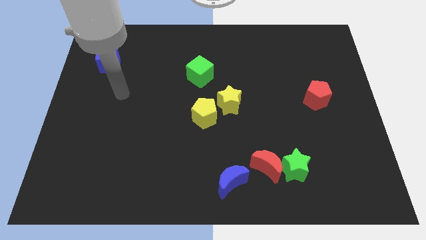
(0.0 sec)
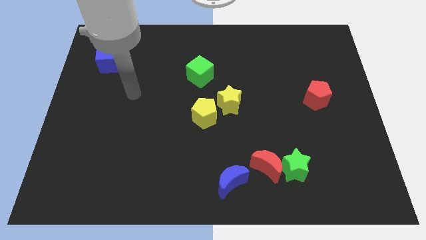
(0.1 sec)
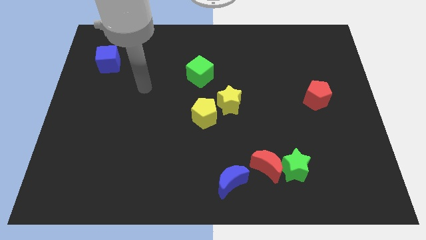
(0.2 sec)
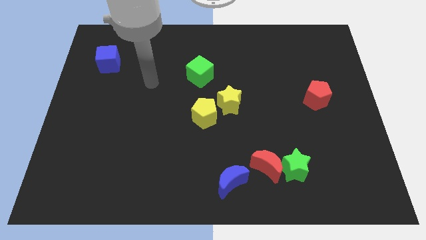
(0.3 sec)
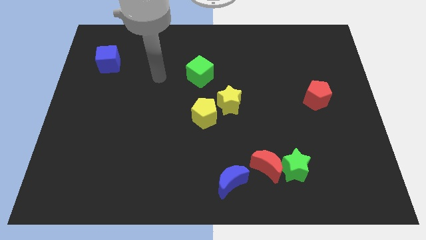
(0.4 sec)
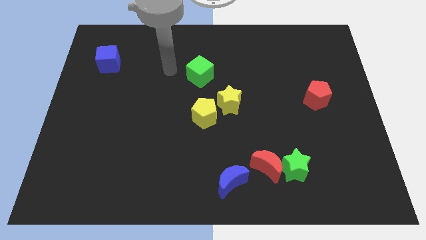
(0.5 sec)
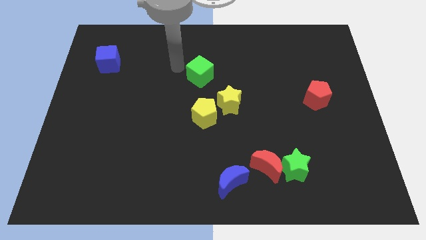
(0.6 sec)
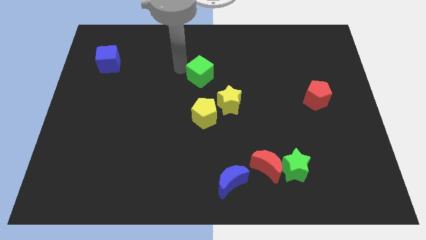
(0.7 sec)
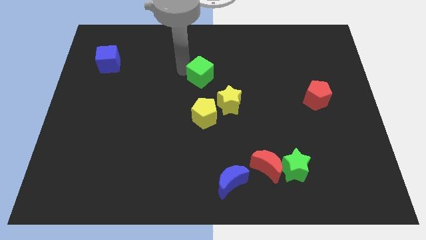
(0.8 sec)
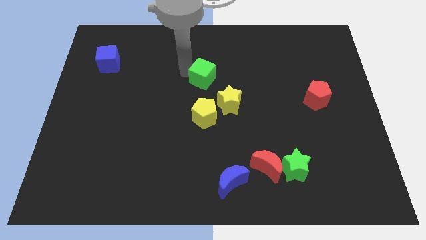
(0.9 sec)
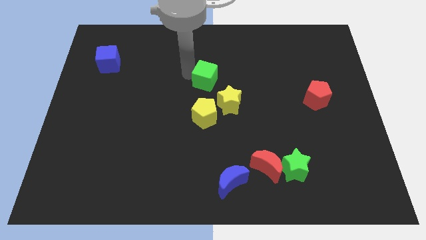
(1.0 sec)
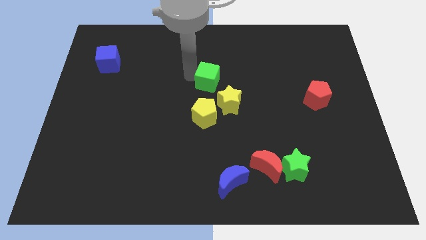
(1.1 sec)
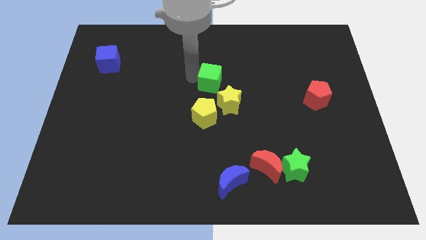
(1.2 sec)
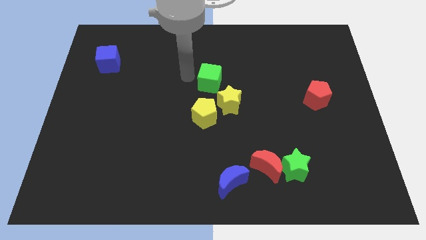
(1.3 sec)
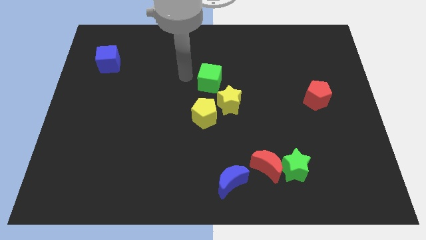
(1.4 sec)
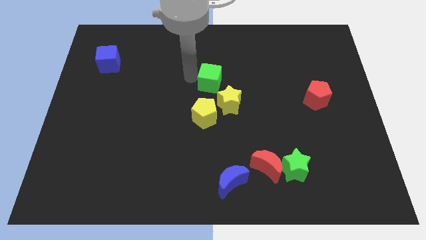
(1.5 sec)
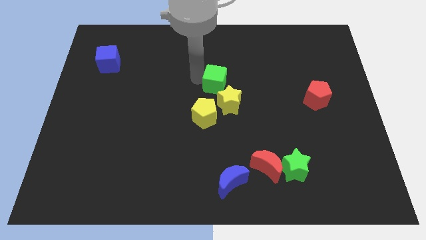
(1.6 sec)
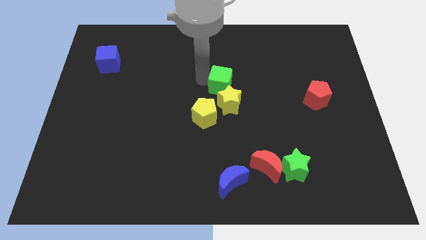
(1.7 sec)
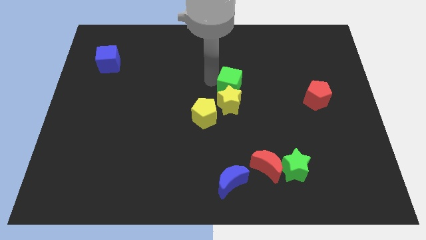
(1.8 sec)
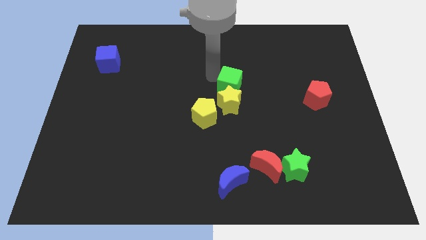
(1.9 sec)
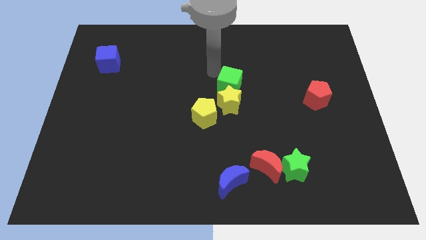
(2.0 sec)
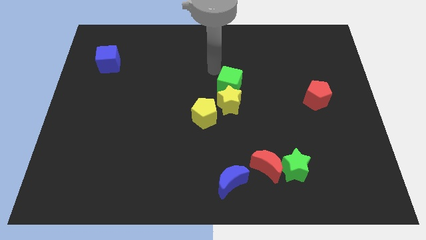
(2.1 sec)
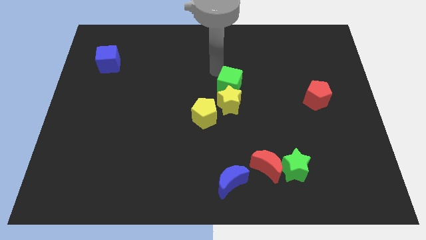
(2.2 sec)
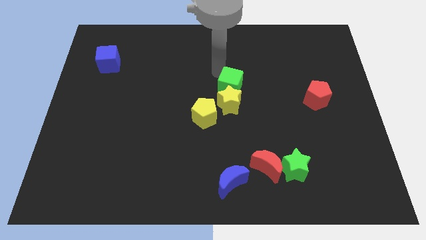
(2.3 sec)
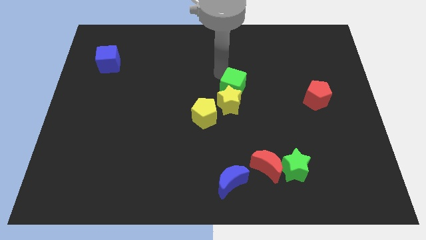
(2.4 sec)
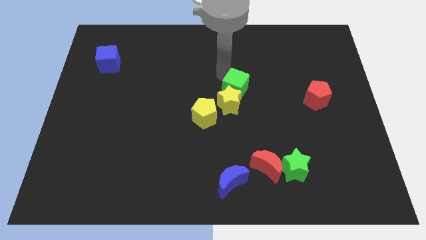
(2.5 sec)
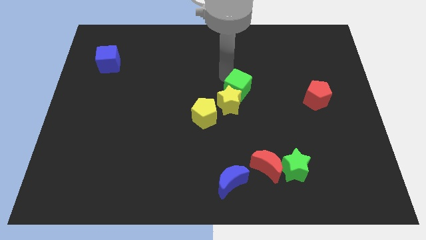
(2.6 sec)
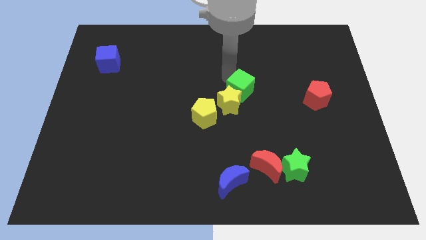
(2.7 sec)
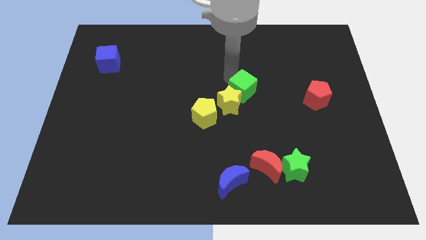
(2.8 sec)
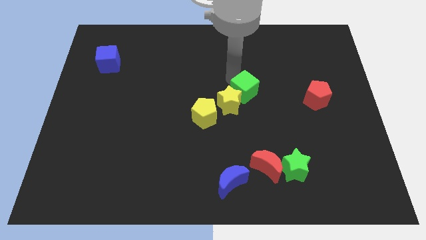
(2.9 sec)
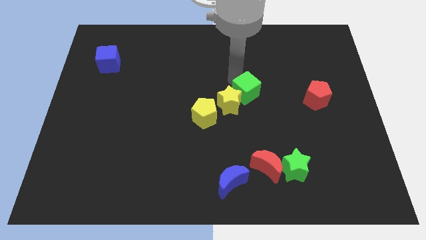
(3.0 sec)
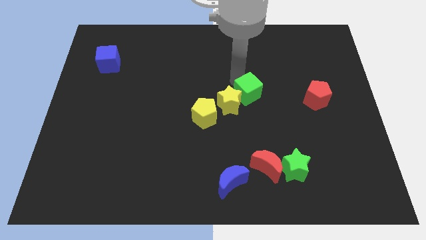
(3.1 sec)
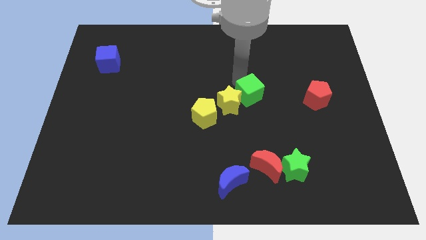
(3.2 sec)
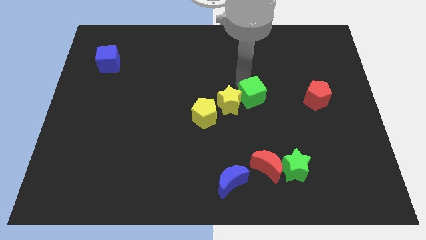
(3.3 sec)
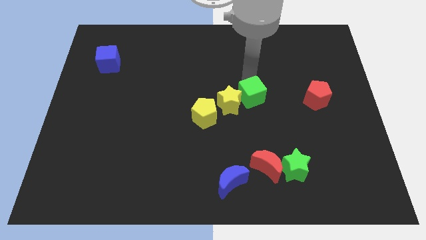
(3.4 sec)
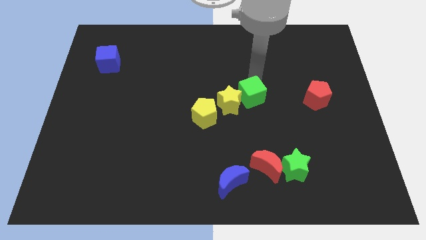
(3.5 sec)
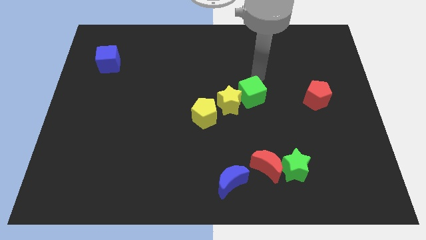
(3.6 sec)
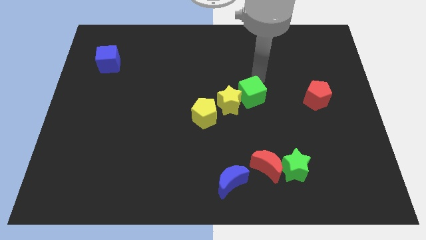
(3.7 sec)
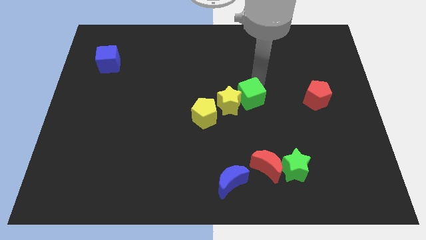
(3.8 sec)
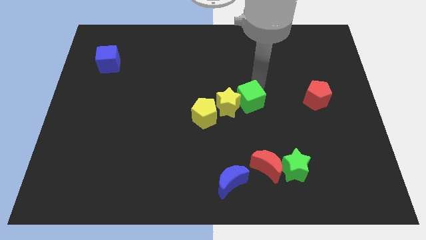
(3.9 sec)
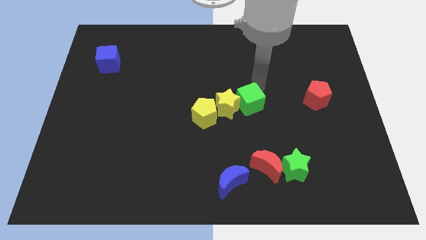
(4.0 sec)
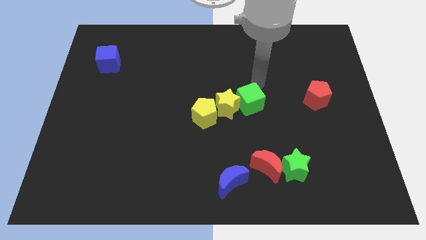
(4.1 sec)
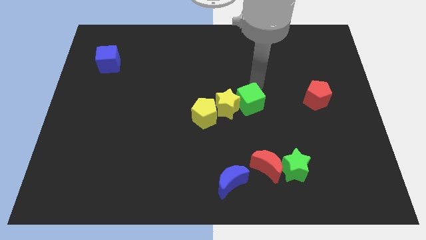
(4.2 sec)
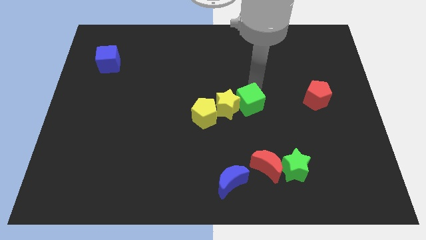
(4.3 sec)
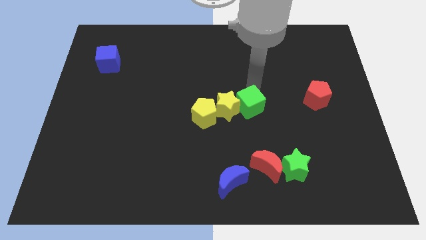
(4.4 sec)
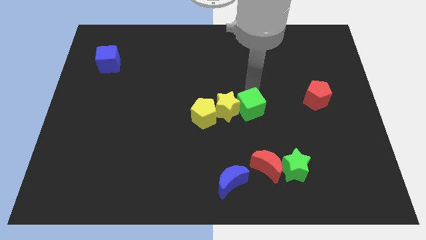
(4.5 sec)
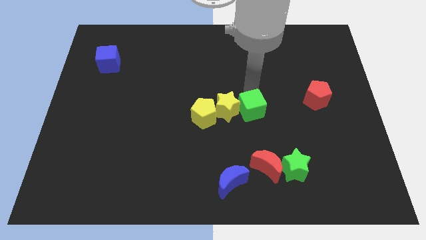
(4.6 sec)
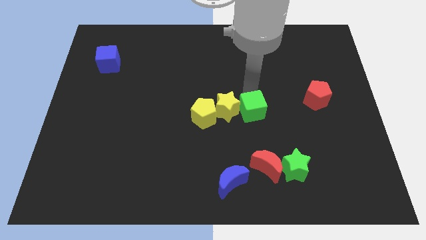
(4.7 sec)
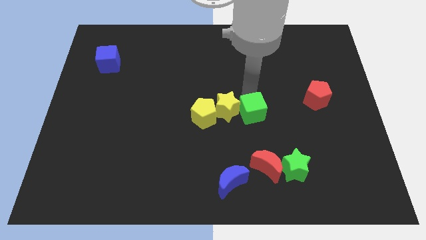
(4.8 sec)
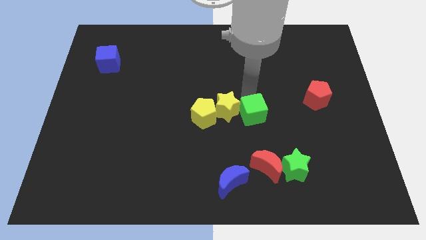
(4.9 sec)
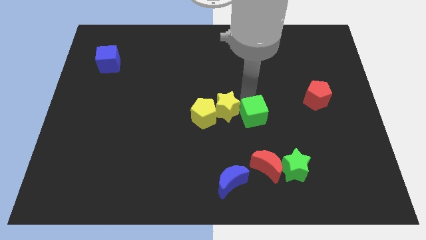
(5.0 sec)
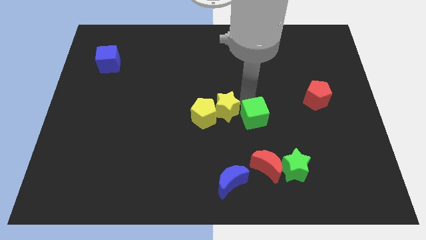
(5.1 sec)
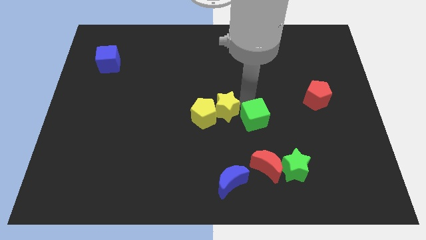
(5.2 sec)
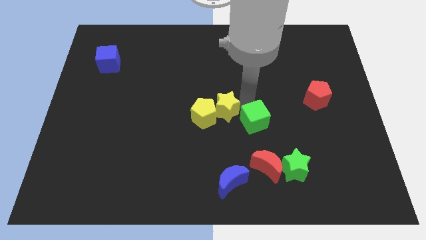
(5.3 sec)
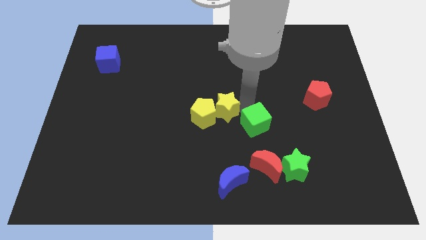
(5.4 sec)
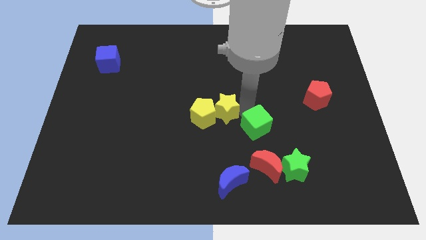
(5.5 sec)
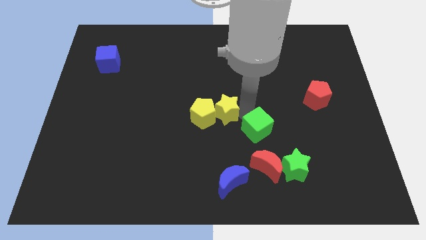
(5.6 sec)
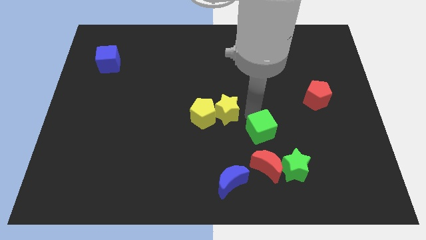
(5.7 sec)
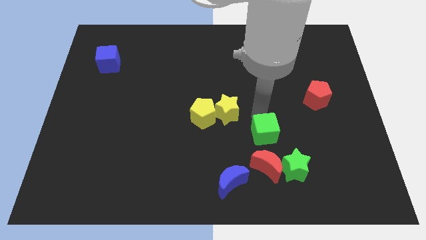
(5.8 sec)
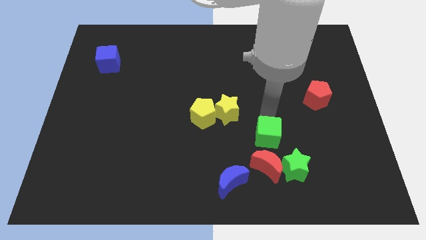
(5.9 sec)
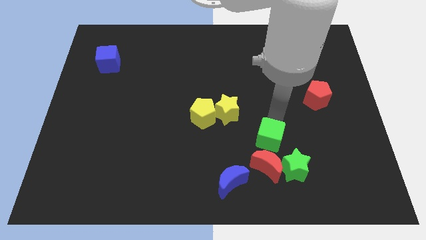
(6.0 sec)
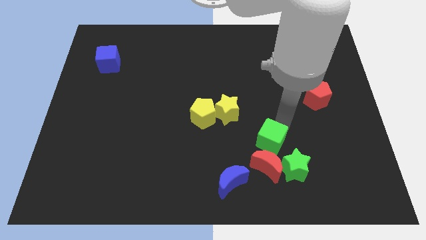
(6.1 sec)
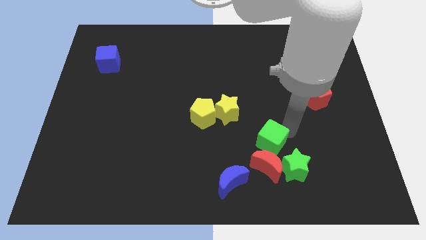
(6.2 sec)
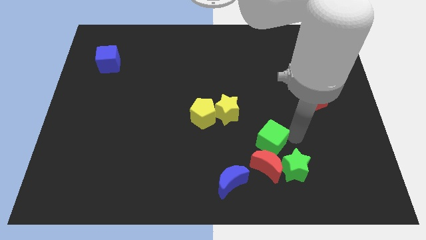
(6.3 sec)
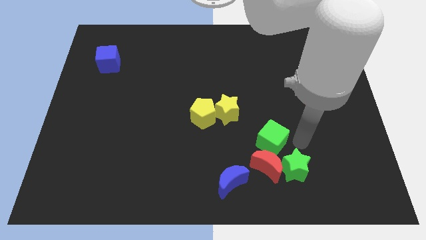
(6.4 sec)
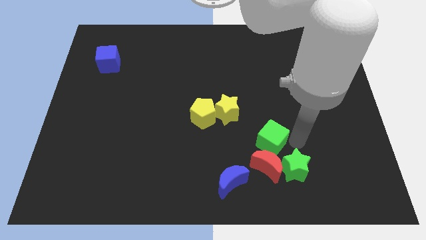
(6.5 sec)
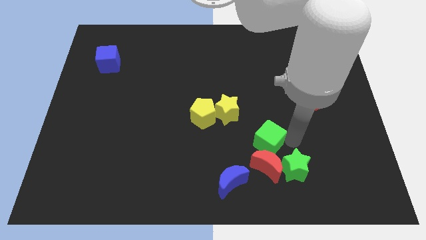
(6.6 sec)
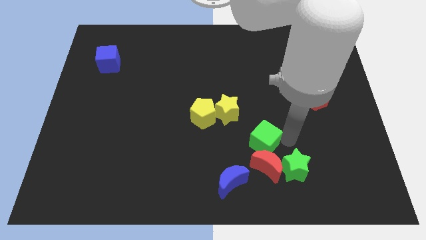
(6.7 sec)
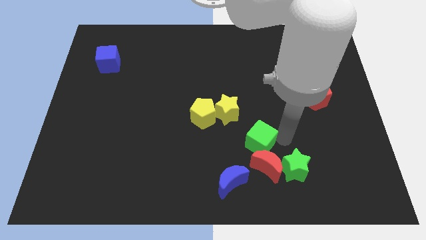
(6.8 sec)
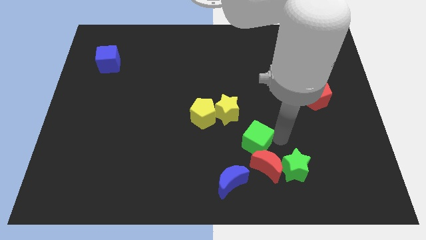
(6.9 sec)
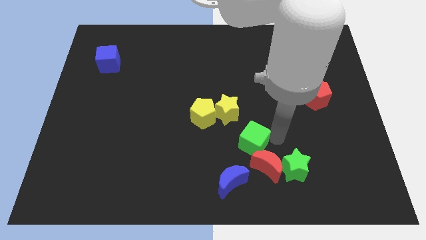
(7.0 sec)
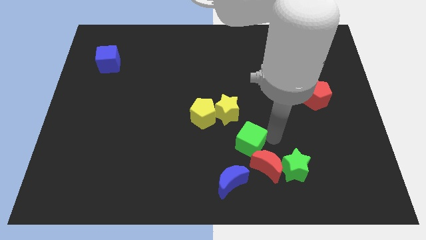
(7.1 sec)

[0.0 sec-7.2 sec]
move the green cube to the top of the blue moon

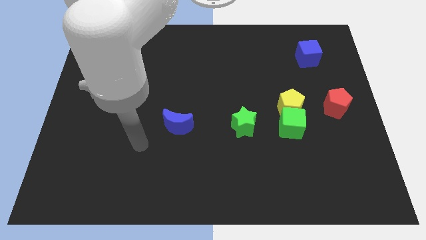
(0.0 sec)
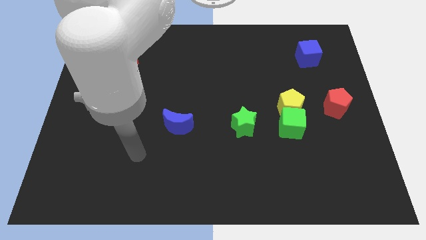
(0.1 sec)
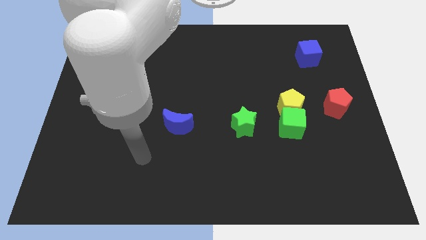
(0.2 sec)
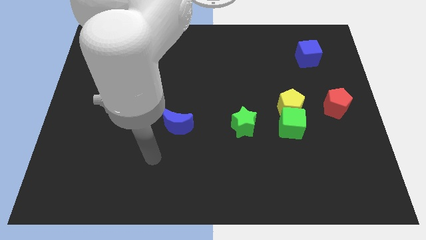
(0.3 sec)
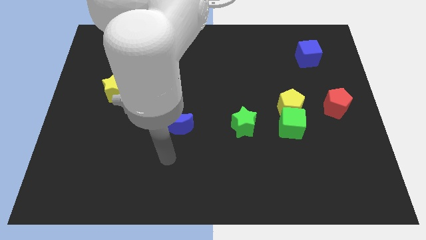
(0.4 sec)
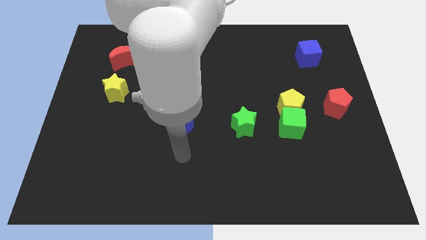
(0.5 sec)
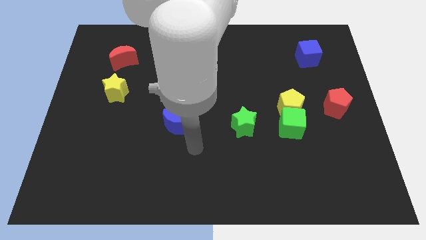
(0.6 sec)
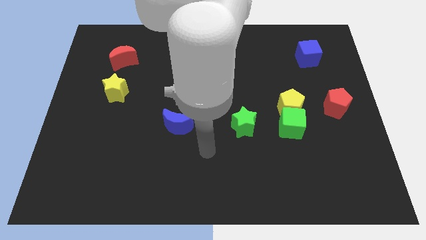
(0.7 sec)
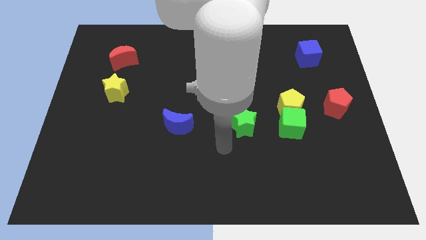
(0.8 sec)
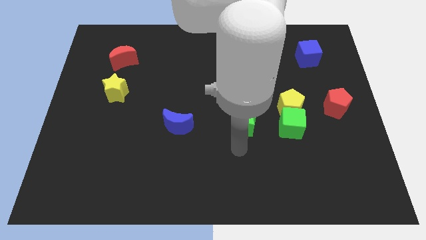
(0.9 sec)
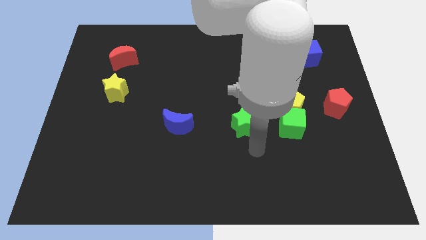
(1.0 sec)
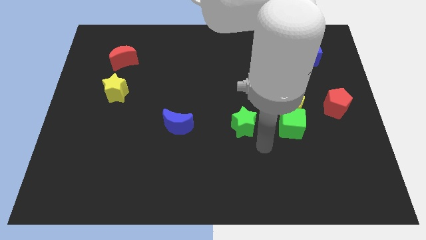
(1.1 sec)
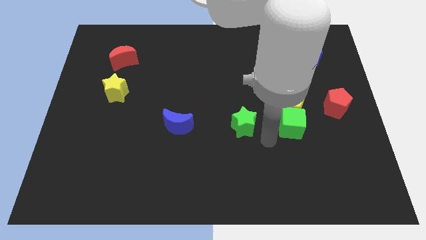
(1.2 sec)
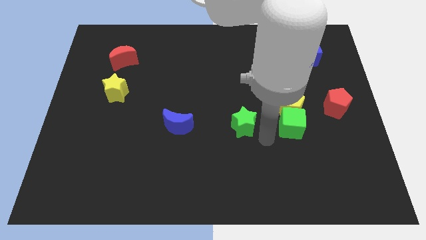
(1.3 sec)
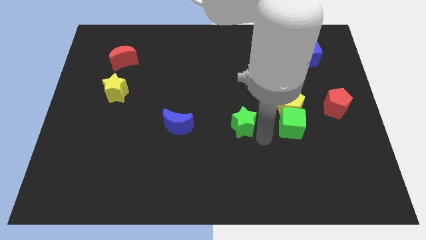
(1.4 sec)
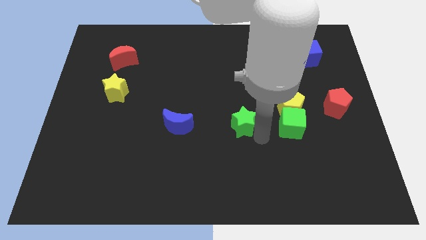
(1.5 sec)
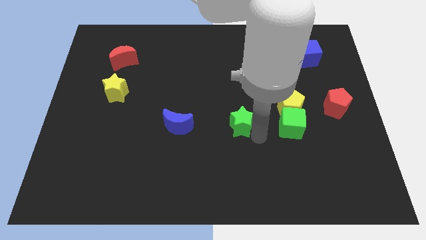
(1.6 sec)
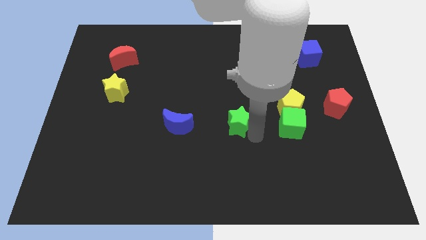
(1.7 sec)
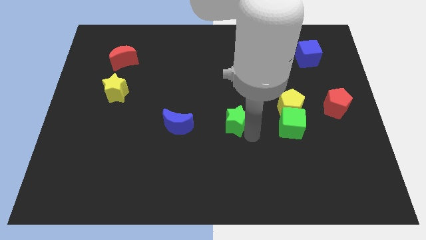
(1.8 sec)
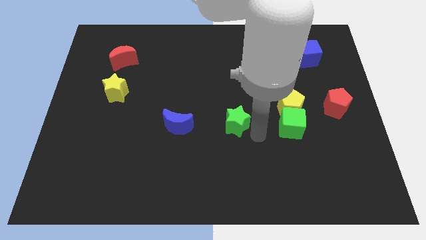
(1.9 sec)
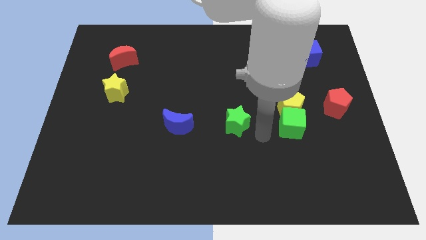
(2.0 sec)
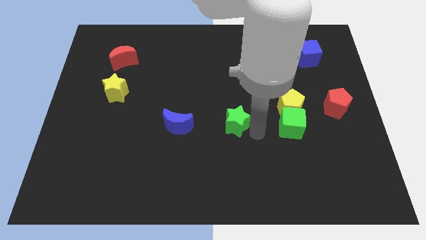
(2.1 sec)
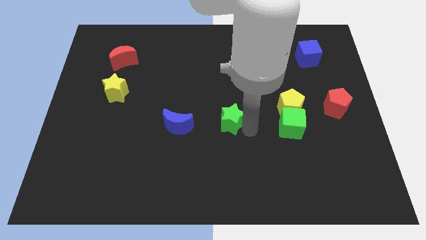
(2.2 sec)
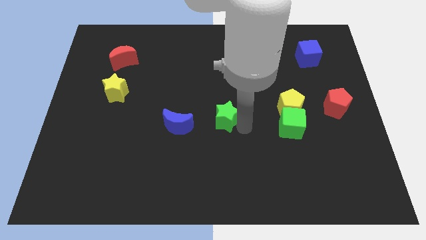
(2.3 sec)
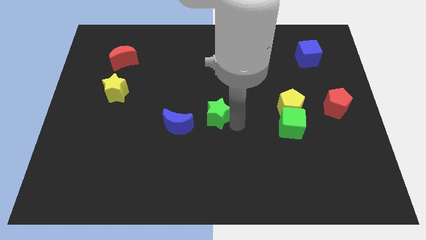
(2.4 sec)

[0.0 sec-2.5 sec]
move the green star to the top right side of the blue moon
